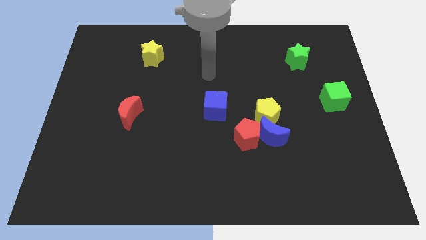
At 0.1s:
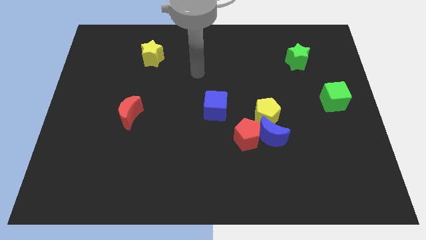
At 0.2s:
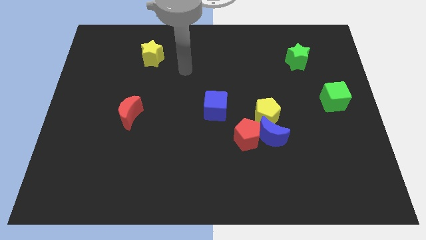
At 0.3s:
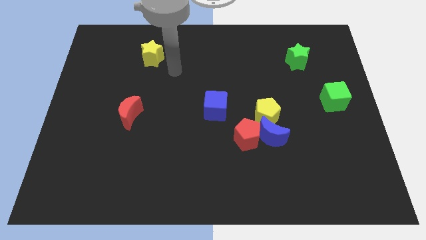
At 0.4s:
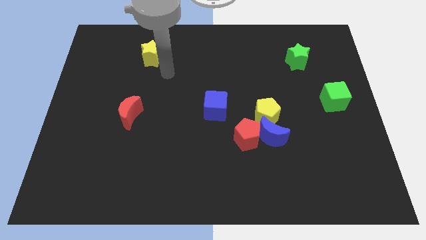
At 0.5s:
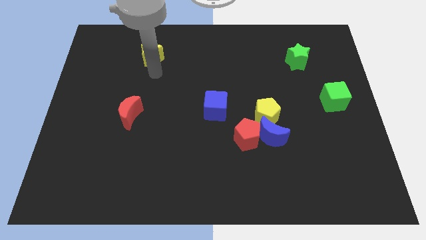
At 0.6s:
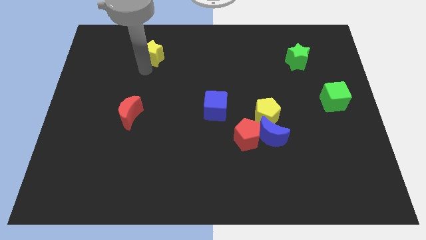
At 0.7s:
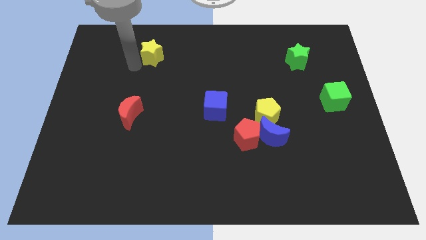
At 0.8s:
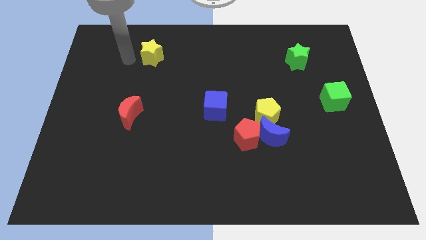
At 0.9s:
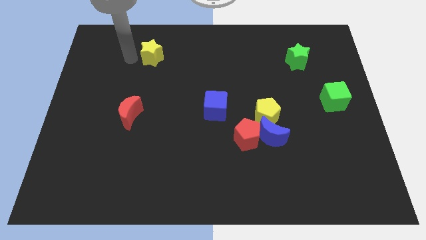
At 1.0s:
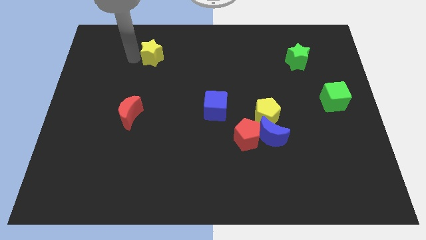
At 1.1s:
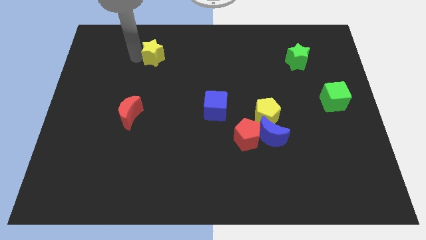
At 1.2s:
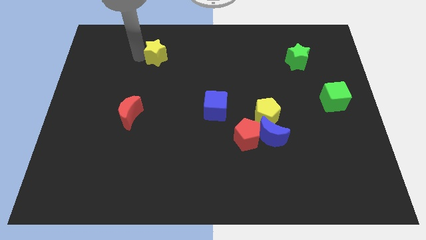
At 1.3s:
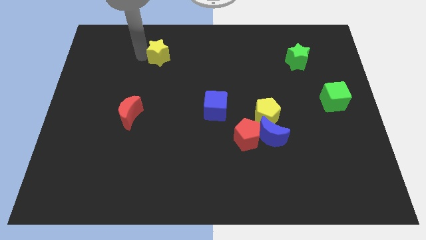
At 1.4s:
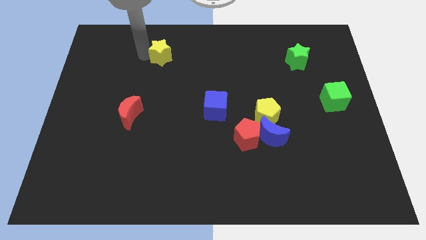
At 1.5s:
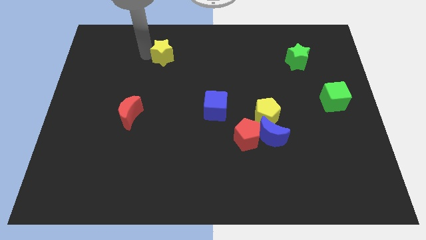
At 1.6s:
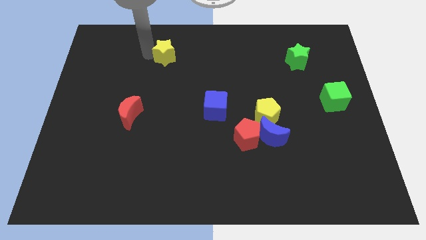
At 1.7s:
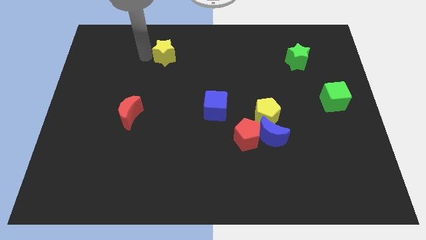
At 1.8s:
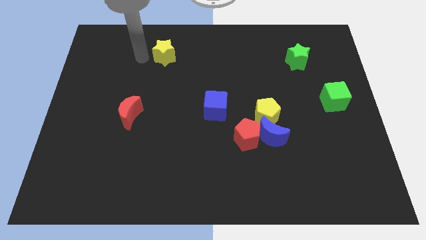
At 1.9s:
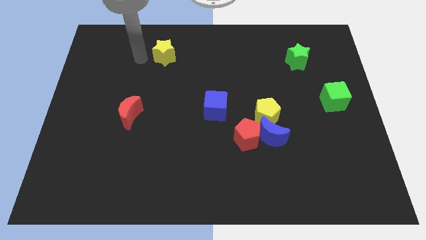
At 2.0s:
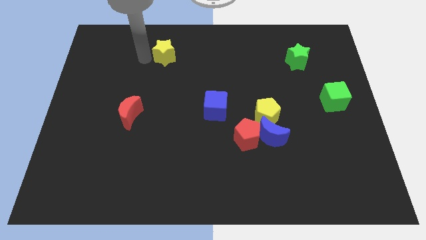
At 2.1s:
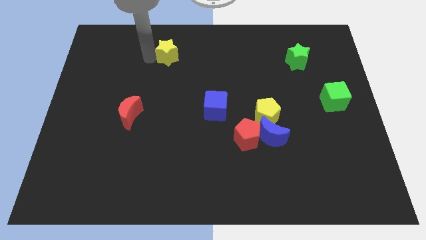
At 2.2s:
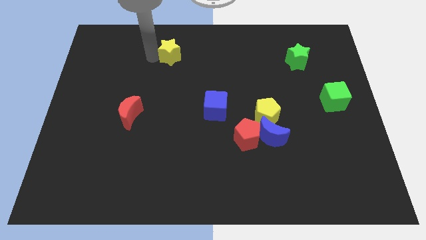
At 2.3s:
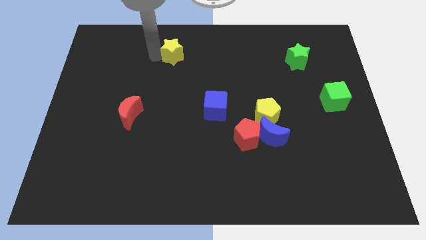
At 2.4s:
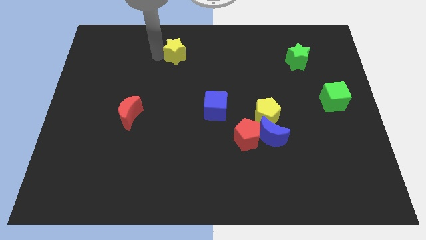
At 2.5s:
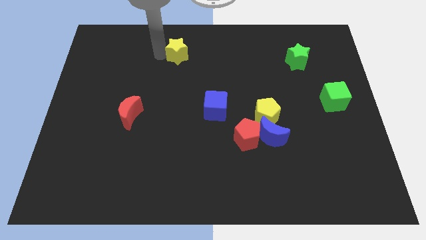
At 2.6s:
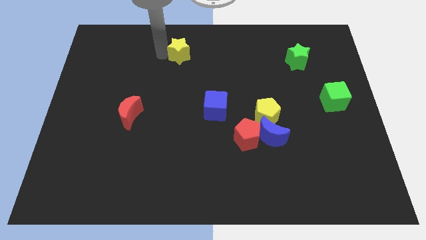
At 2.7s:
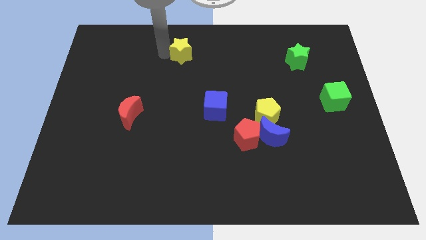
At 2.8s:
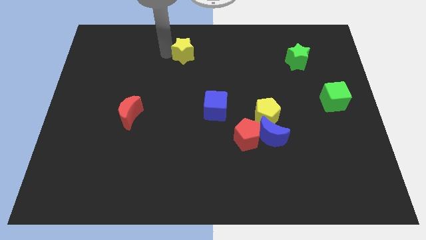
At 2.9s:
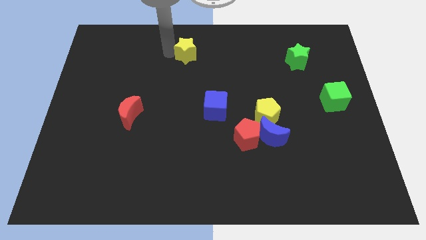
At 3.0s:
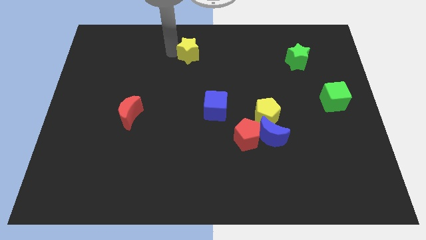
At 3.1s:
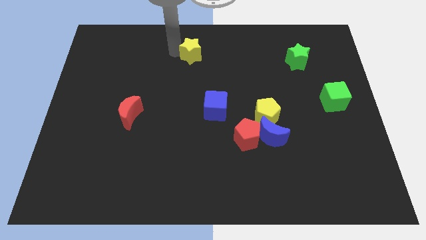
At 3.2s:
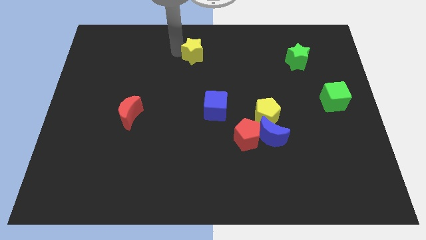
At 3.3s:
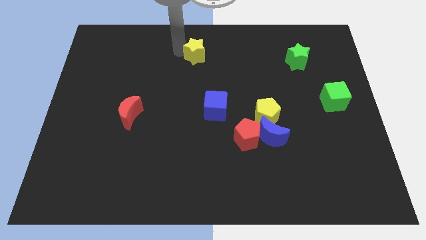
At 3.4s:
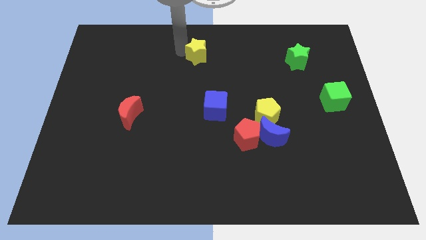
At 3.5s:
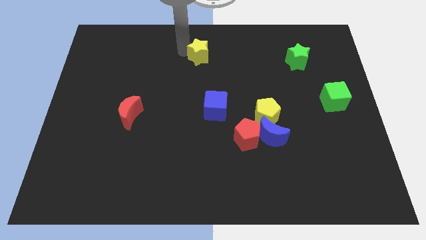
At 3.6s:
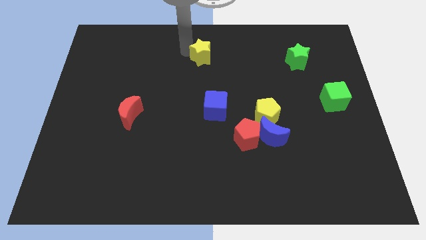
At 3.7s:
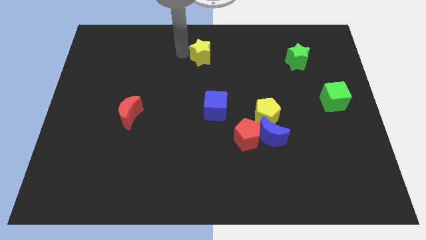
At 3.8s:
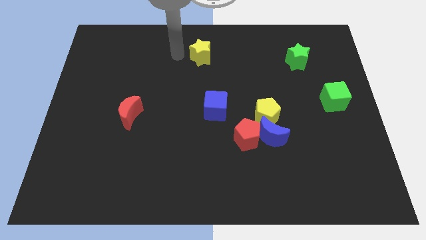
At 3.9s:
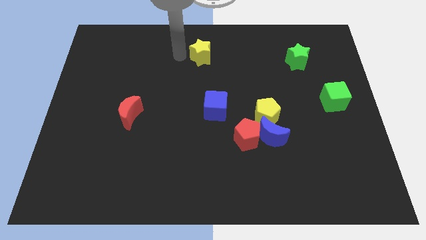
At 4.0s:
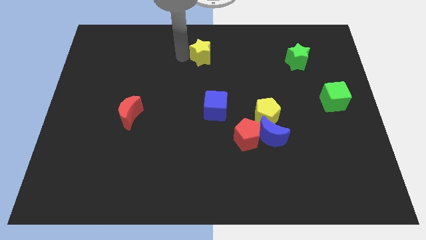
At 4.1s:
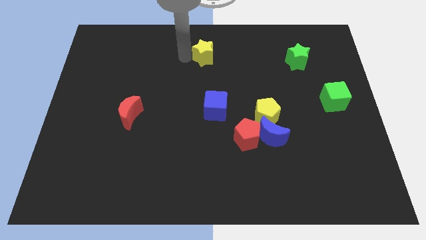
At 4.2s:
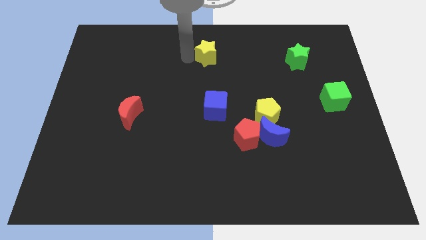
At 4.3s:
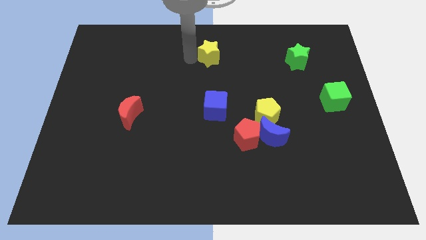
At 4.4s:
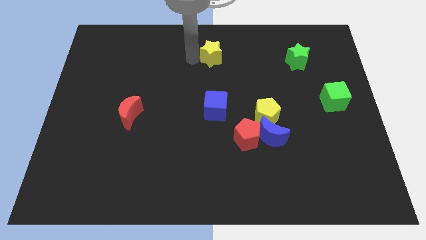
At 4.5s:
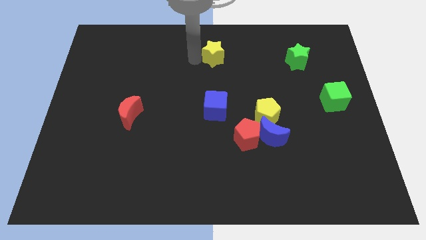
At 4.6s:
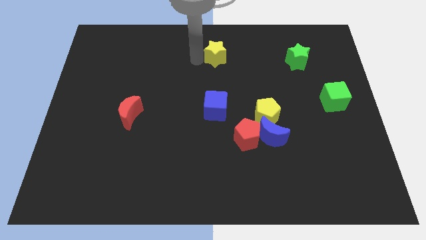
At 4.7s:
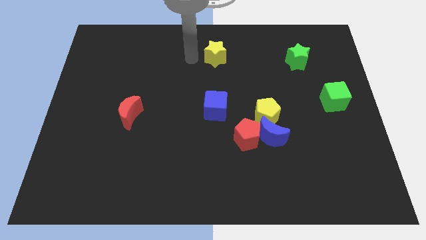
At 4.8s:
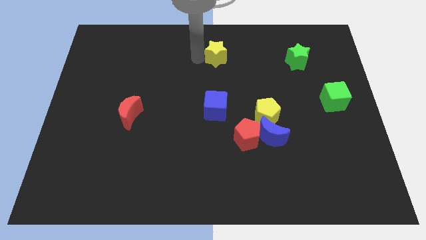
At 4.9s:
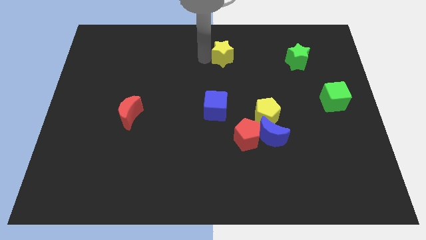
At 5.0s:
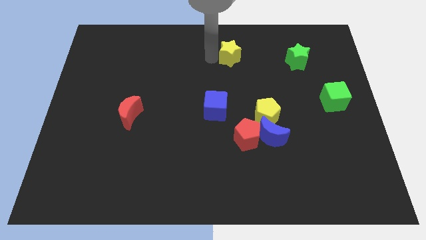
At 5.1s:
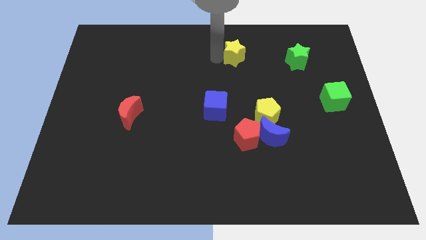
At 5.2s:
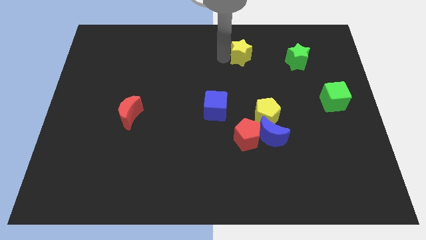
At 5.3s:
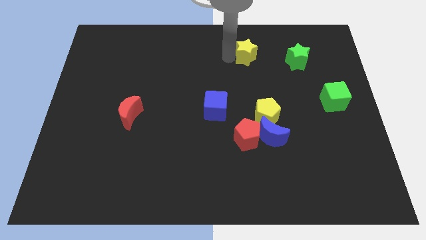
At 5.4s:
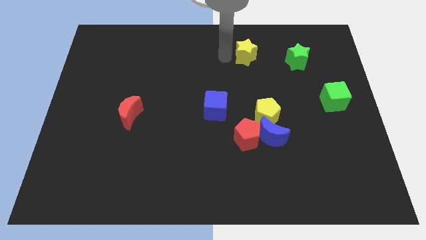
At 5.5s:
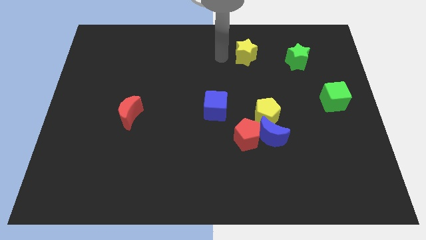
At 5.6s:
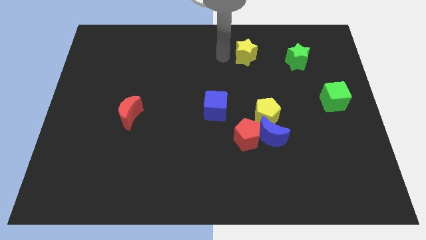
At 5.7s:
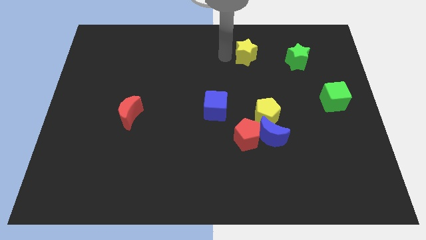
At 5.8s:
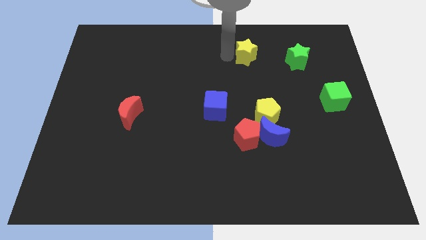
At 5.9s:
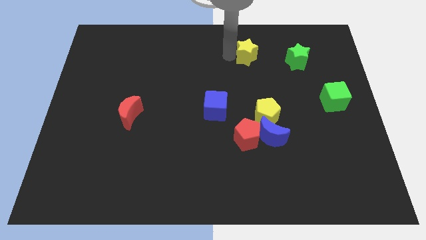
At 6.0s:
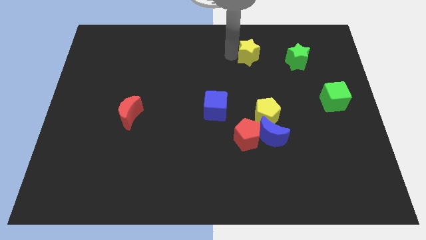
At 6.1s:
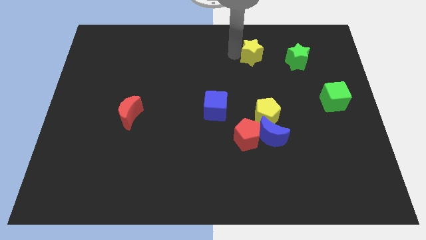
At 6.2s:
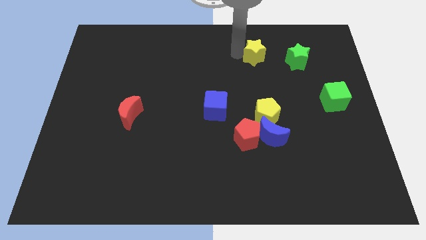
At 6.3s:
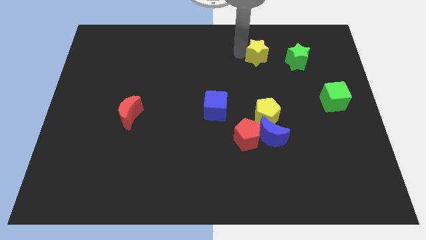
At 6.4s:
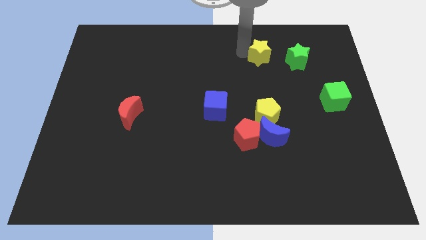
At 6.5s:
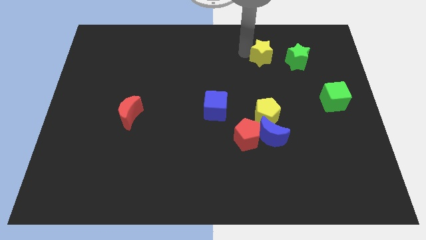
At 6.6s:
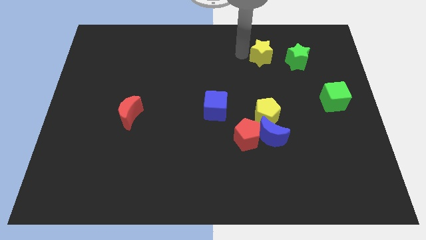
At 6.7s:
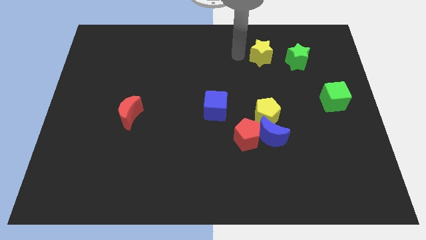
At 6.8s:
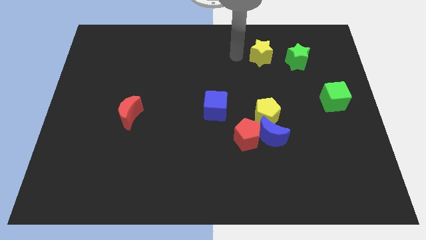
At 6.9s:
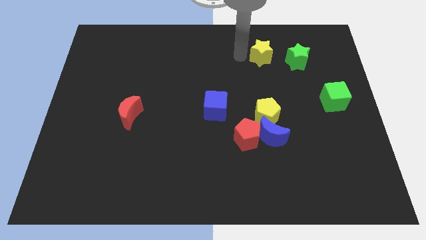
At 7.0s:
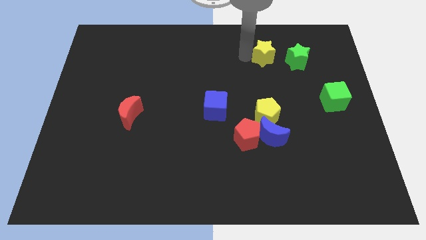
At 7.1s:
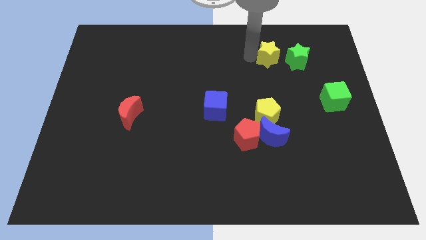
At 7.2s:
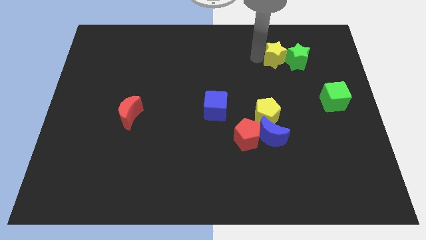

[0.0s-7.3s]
move the yellow star towards the green star

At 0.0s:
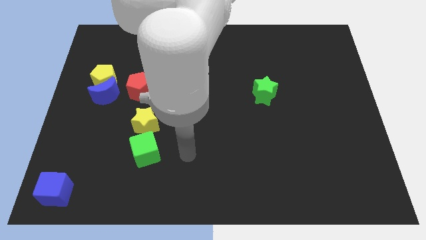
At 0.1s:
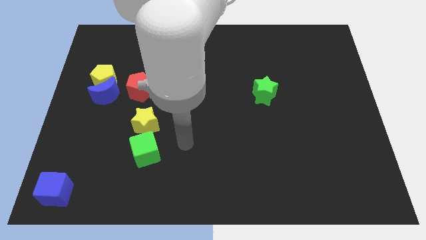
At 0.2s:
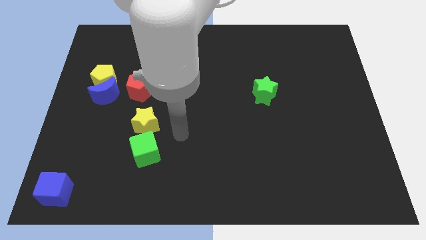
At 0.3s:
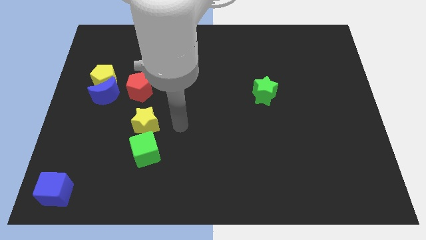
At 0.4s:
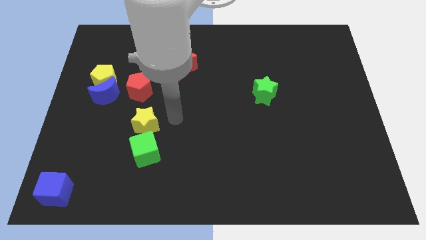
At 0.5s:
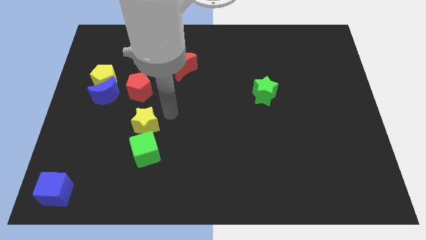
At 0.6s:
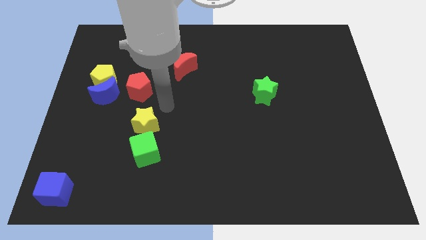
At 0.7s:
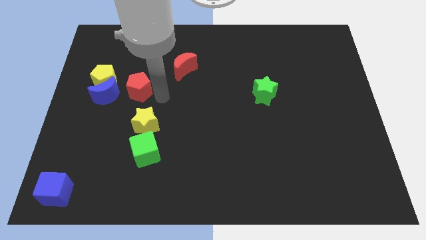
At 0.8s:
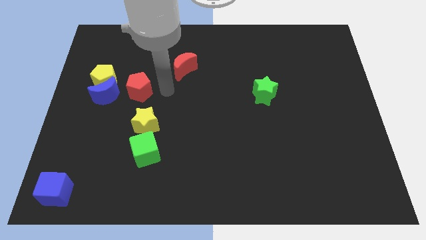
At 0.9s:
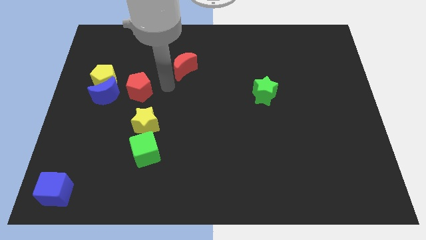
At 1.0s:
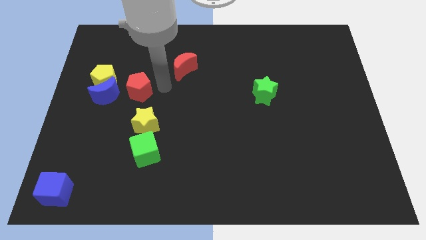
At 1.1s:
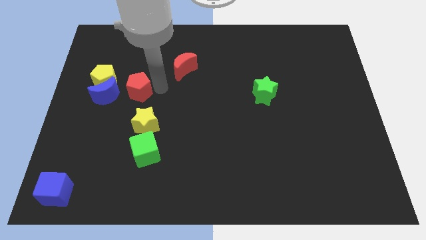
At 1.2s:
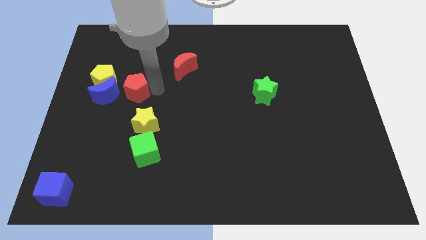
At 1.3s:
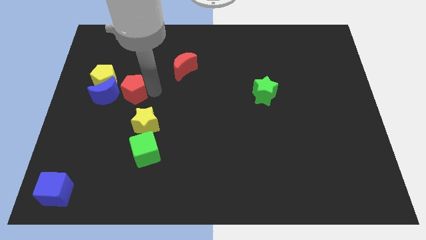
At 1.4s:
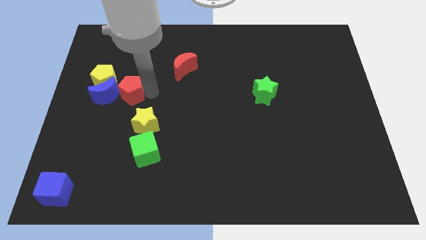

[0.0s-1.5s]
slide the red pentagon to the blue moon
